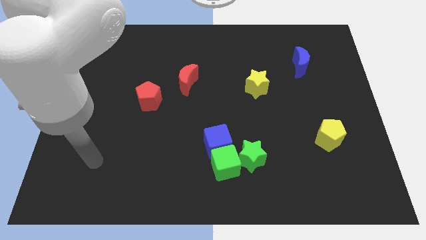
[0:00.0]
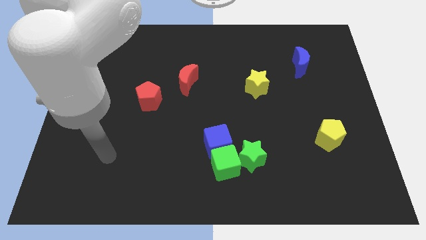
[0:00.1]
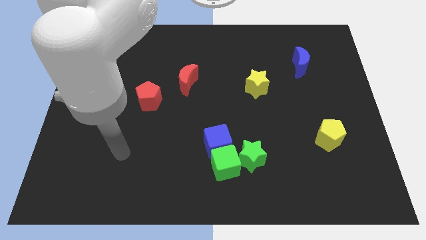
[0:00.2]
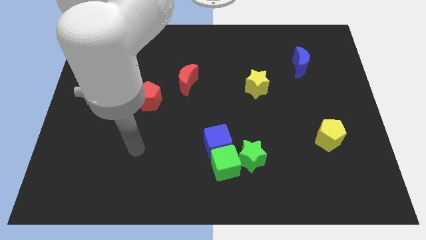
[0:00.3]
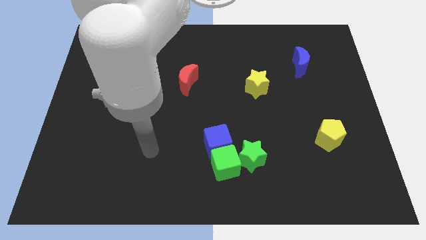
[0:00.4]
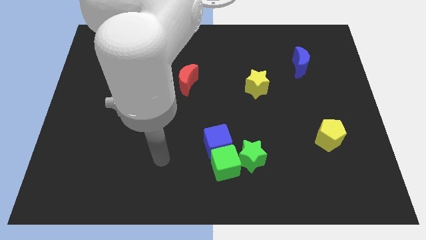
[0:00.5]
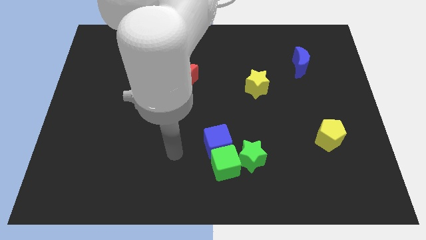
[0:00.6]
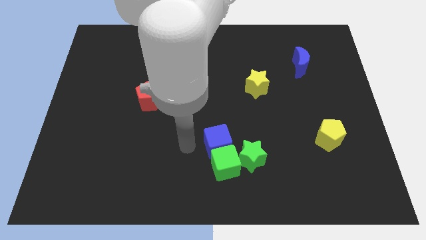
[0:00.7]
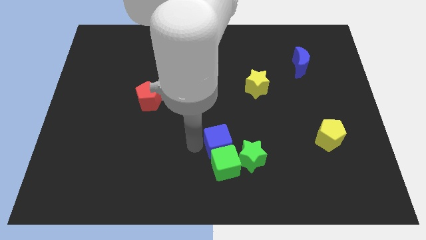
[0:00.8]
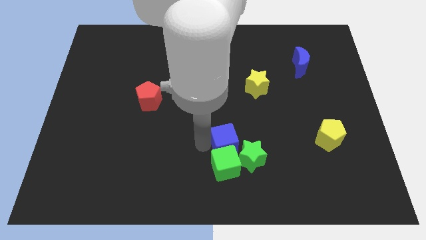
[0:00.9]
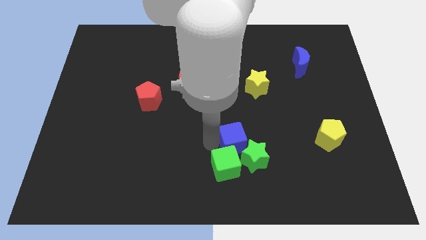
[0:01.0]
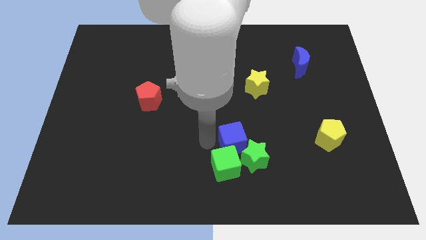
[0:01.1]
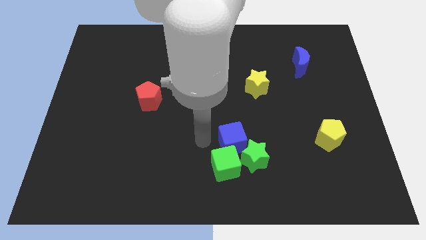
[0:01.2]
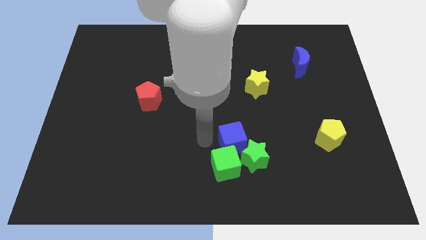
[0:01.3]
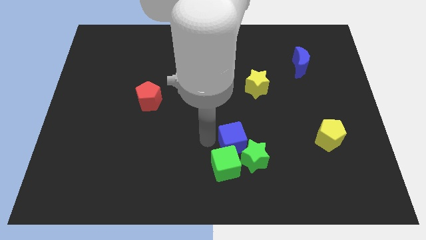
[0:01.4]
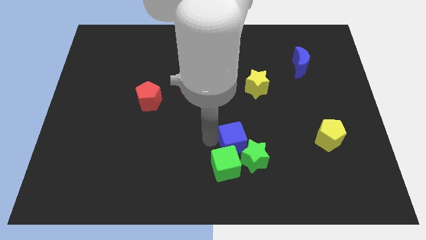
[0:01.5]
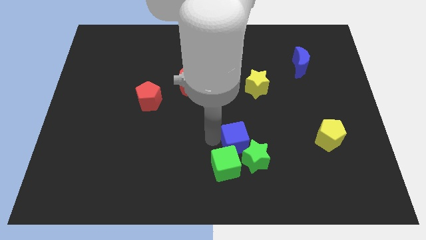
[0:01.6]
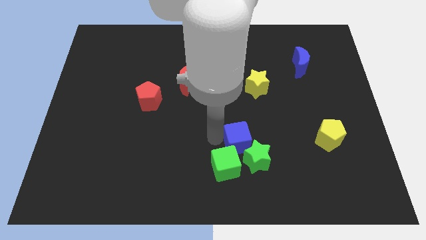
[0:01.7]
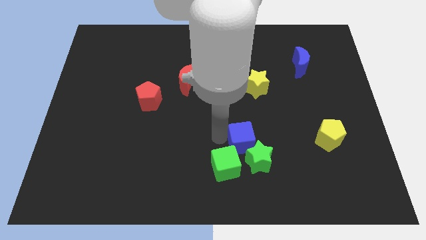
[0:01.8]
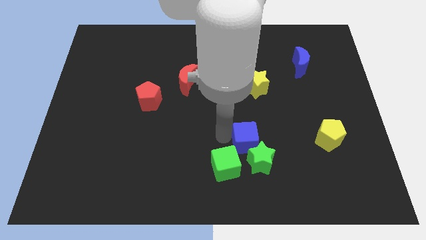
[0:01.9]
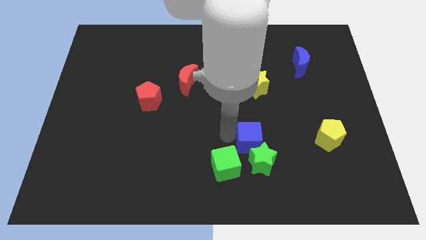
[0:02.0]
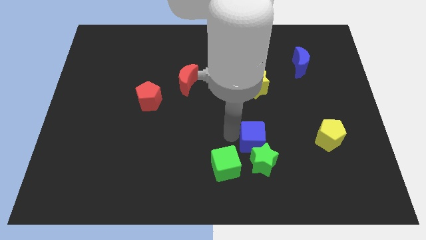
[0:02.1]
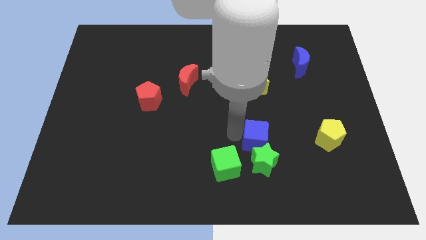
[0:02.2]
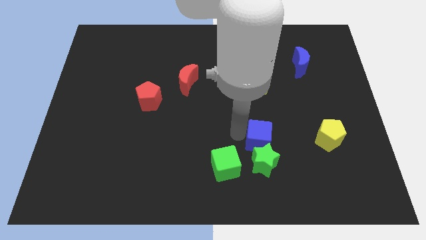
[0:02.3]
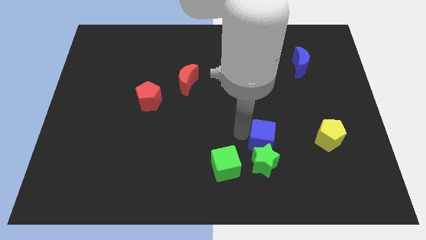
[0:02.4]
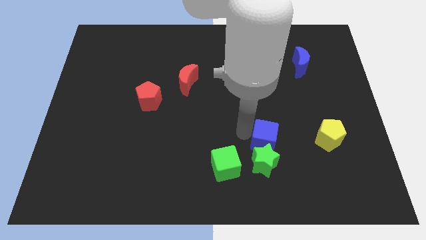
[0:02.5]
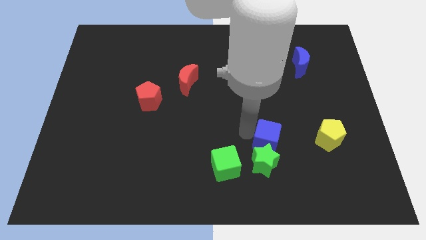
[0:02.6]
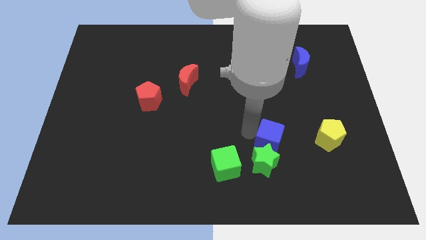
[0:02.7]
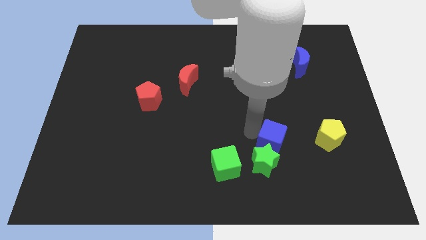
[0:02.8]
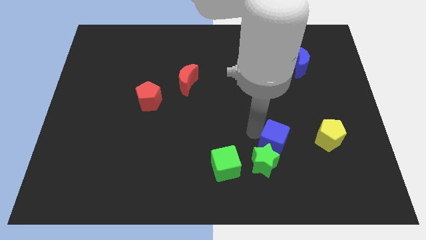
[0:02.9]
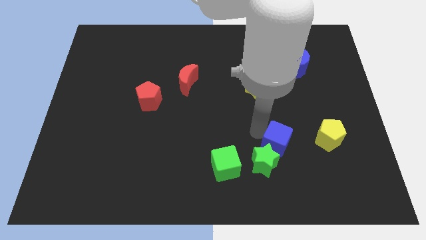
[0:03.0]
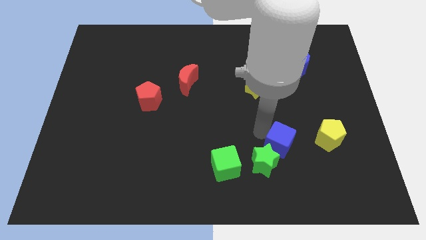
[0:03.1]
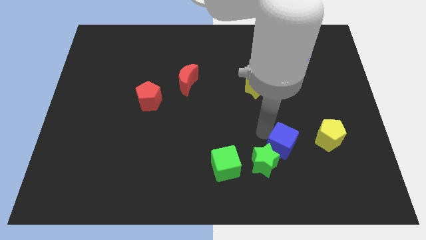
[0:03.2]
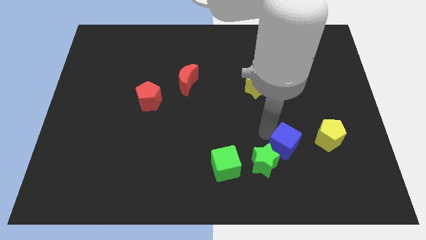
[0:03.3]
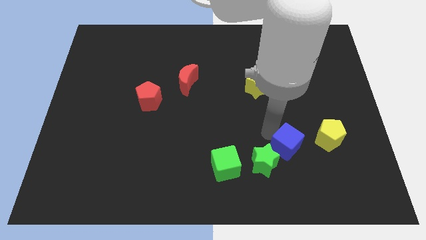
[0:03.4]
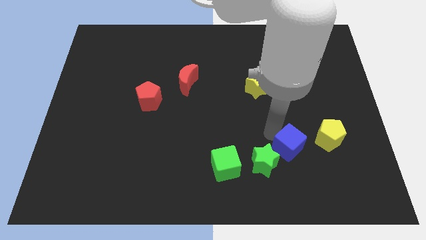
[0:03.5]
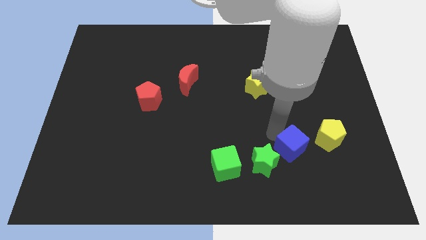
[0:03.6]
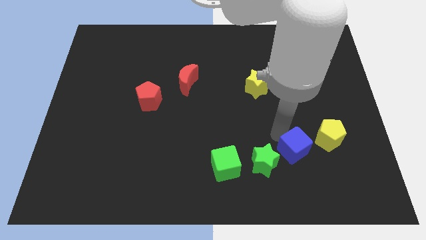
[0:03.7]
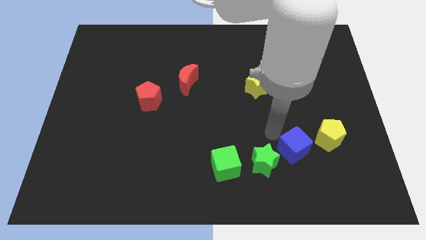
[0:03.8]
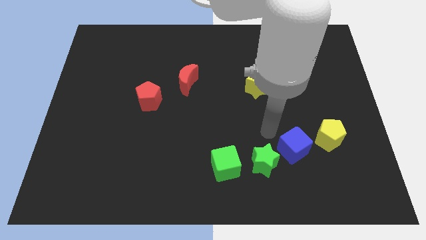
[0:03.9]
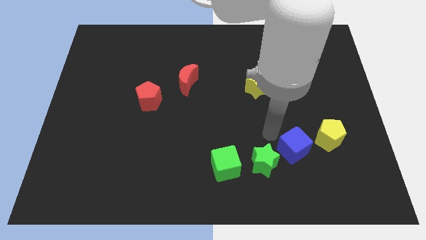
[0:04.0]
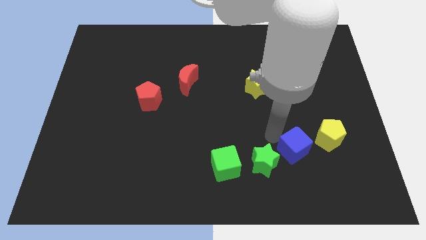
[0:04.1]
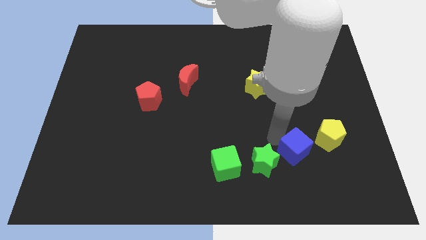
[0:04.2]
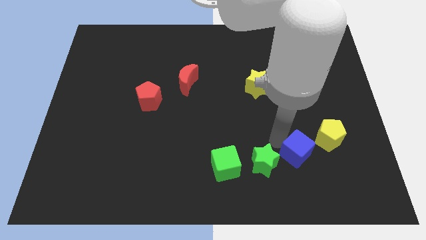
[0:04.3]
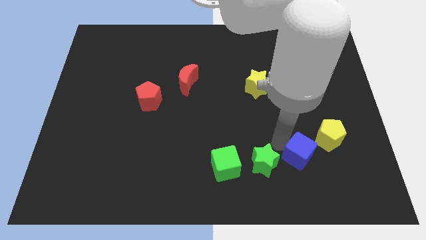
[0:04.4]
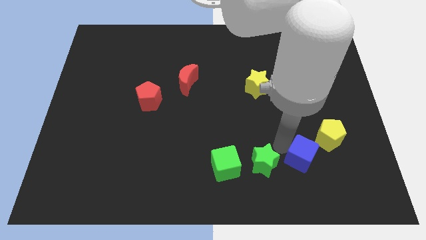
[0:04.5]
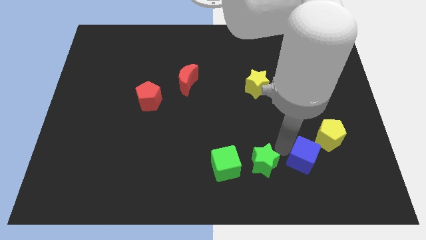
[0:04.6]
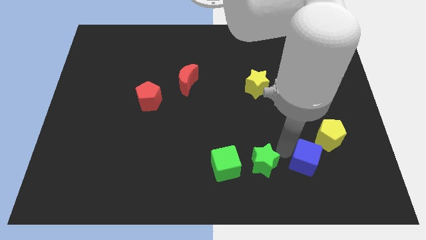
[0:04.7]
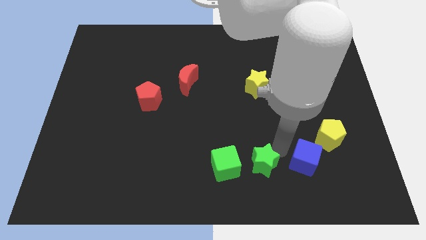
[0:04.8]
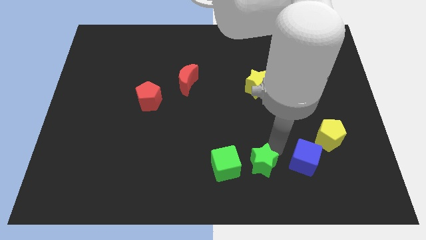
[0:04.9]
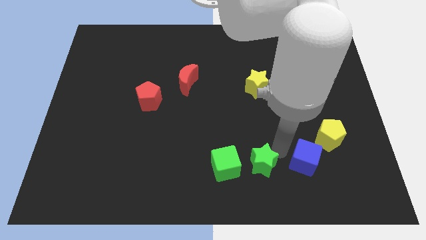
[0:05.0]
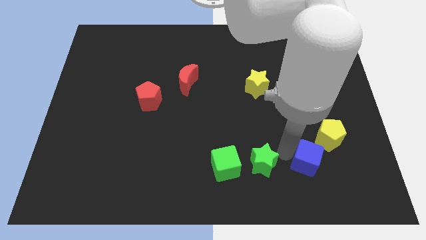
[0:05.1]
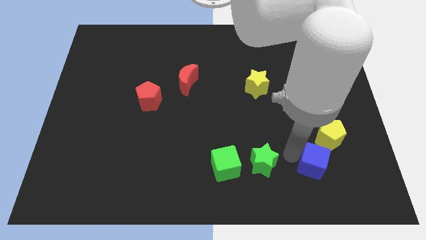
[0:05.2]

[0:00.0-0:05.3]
put the blue cube below the yellow pentagon
